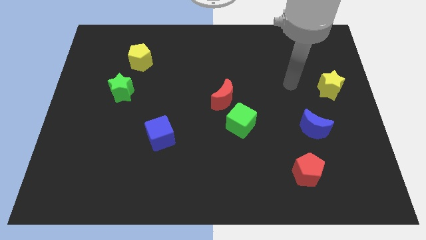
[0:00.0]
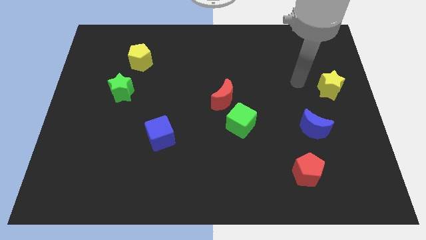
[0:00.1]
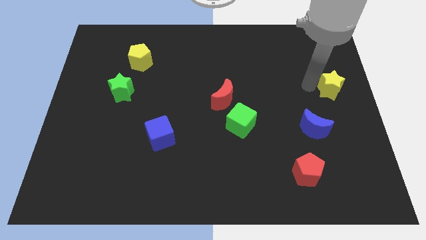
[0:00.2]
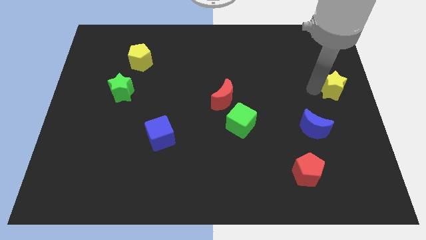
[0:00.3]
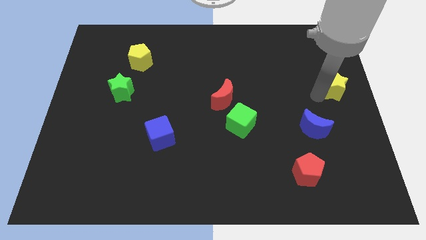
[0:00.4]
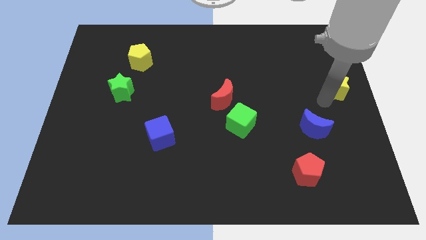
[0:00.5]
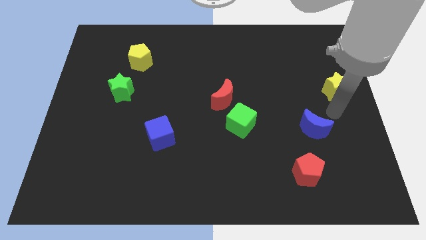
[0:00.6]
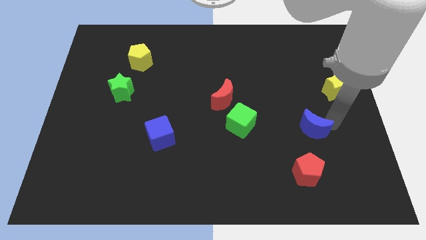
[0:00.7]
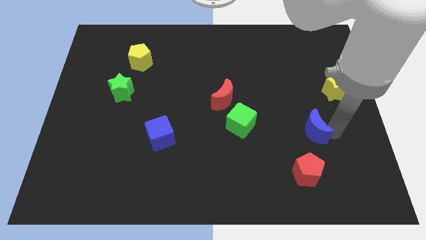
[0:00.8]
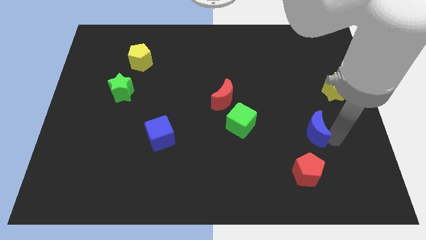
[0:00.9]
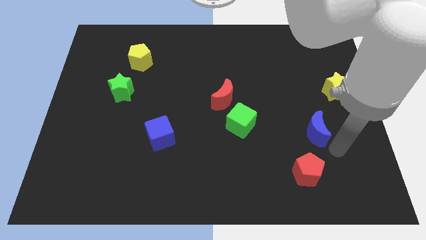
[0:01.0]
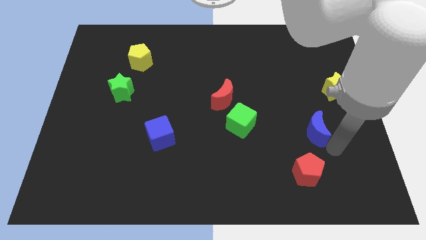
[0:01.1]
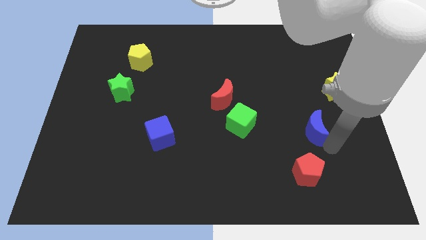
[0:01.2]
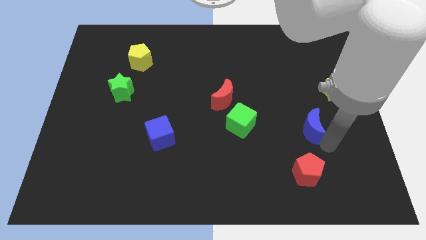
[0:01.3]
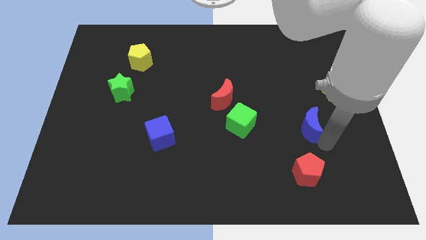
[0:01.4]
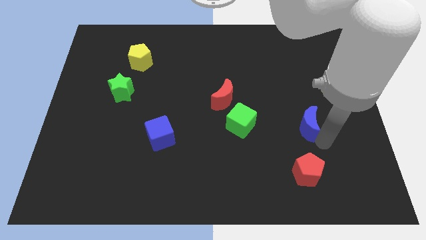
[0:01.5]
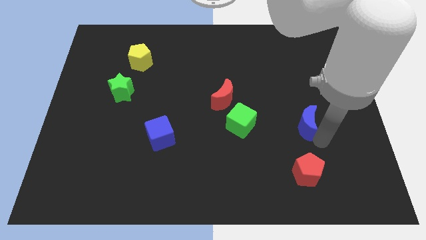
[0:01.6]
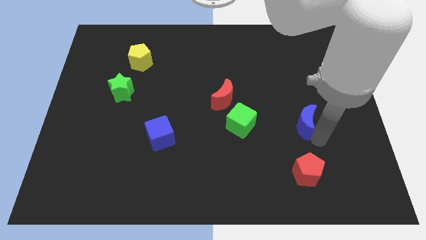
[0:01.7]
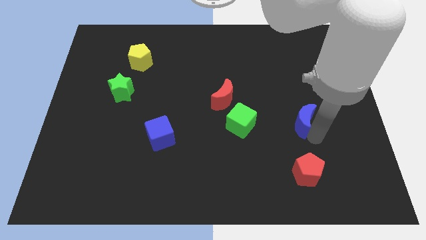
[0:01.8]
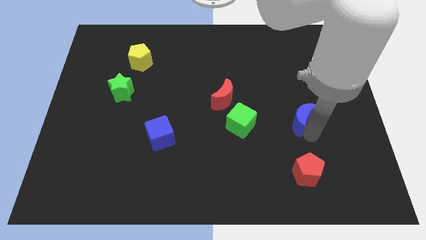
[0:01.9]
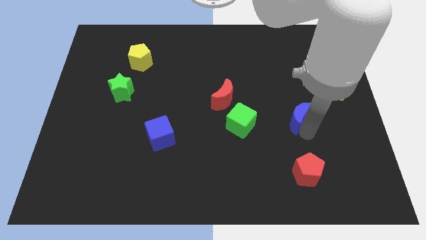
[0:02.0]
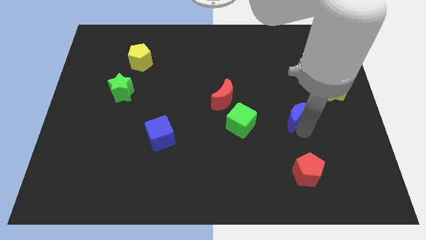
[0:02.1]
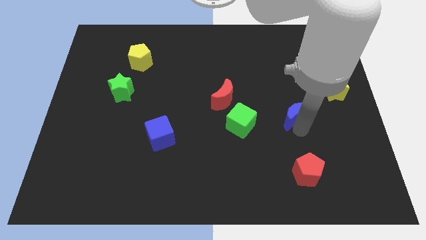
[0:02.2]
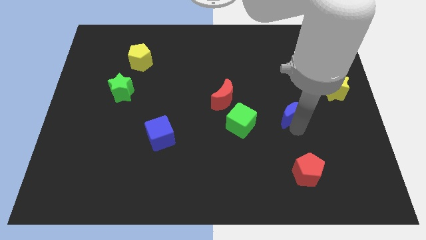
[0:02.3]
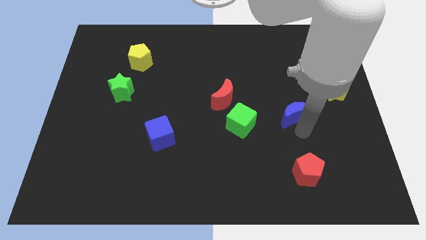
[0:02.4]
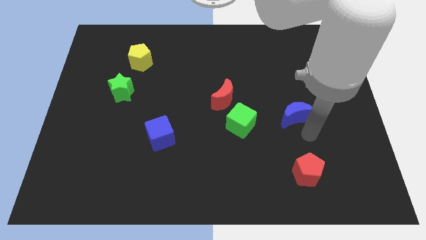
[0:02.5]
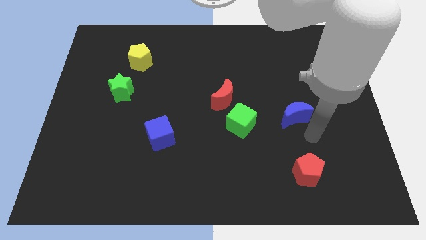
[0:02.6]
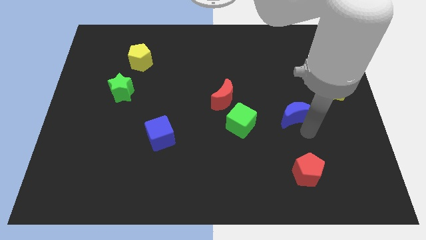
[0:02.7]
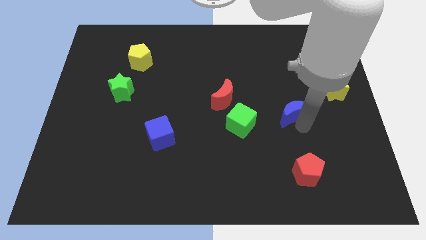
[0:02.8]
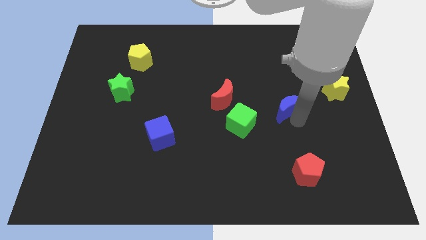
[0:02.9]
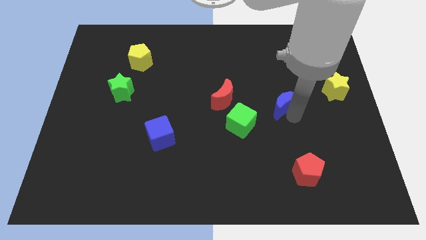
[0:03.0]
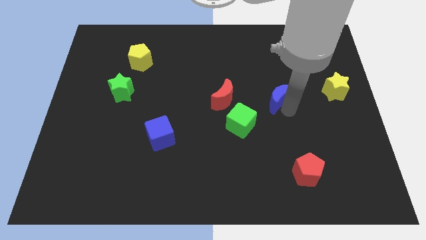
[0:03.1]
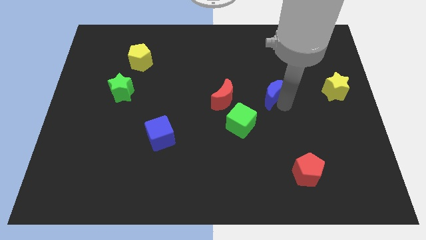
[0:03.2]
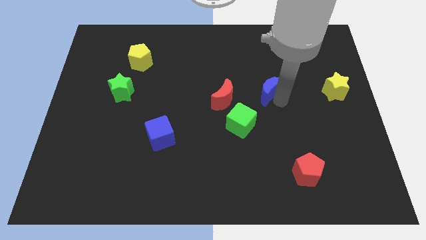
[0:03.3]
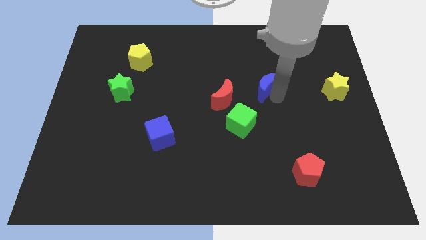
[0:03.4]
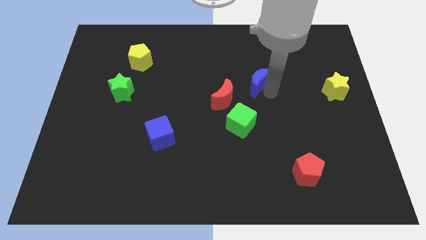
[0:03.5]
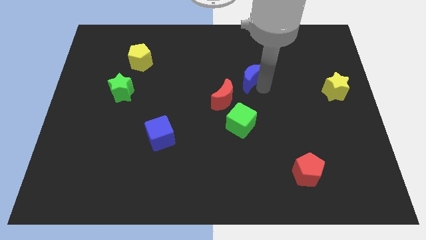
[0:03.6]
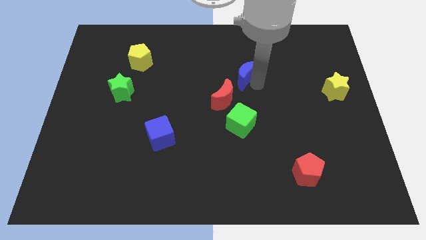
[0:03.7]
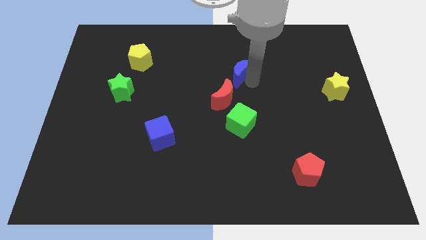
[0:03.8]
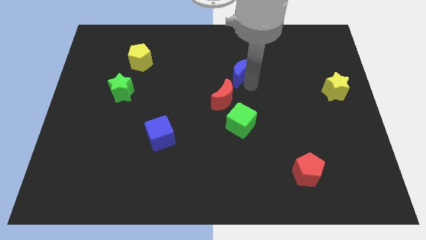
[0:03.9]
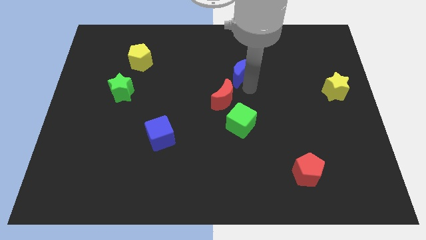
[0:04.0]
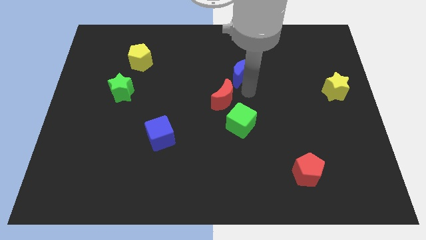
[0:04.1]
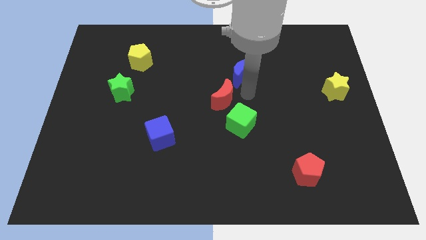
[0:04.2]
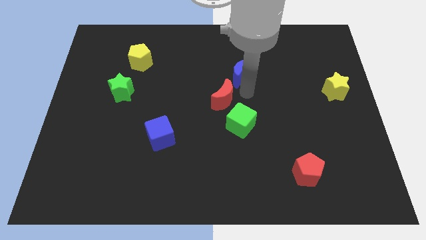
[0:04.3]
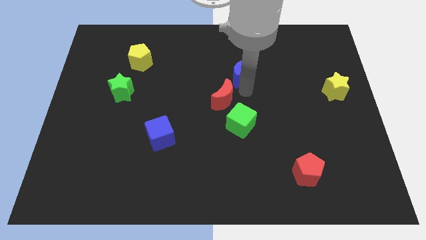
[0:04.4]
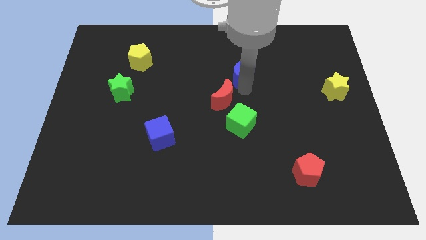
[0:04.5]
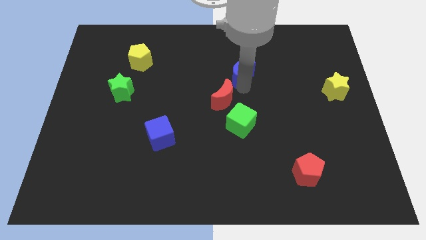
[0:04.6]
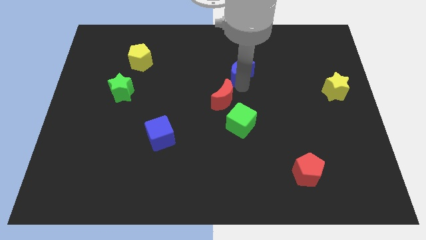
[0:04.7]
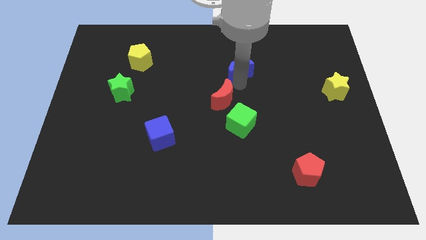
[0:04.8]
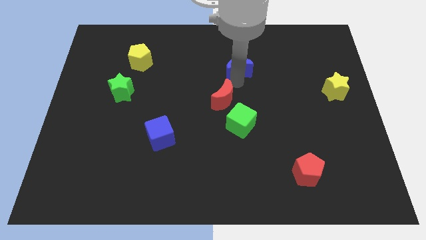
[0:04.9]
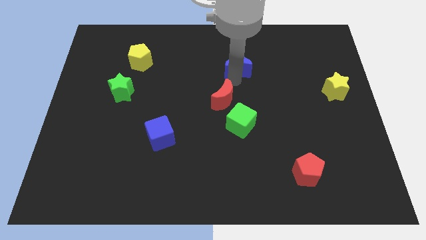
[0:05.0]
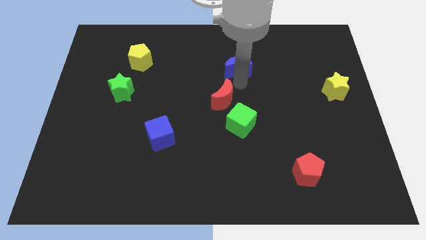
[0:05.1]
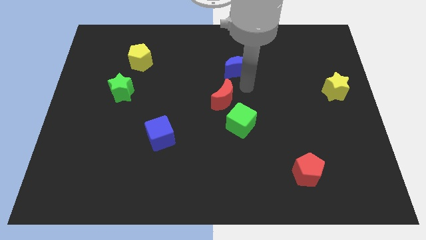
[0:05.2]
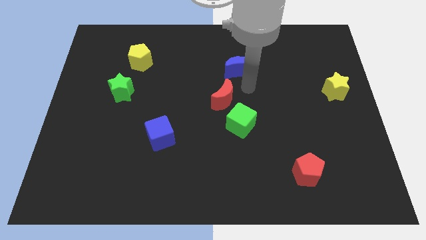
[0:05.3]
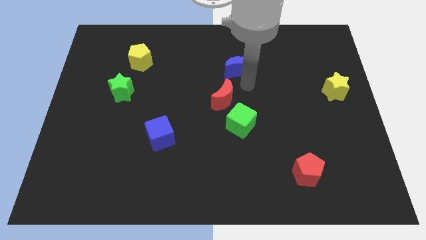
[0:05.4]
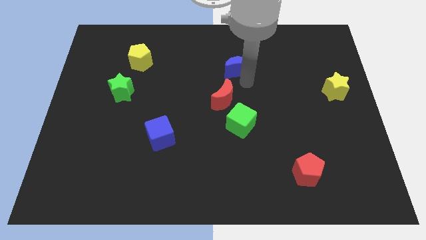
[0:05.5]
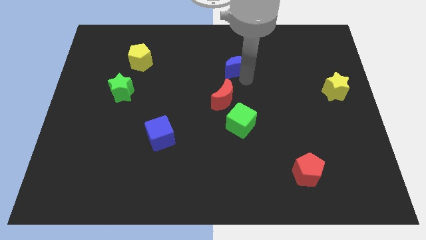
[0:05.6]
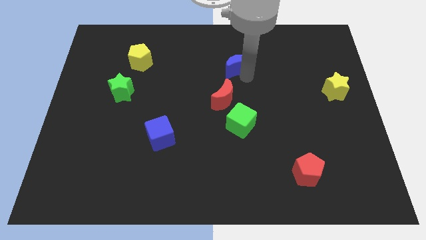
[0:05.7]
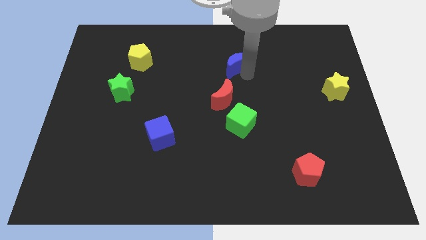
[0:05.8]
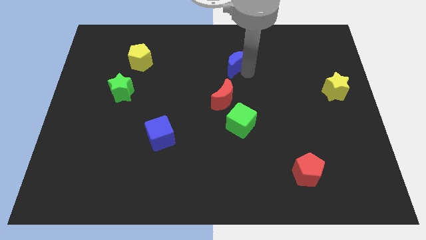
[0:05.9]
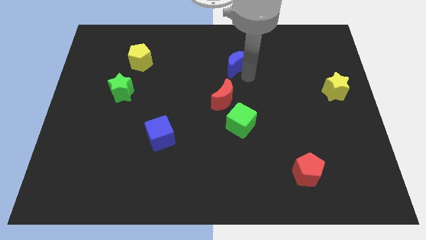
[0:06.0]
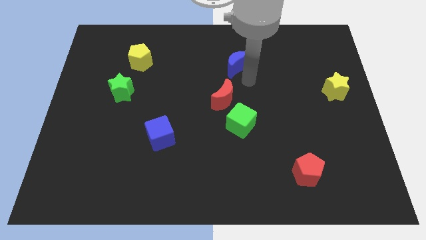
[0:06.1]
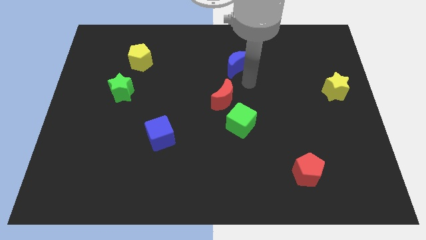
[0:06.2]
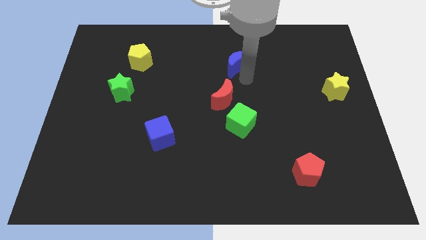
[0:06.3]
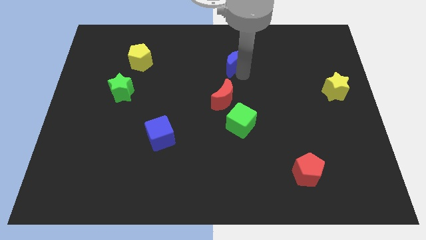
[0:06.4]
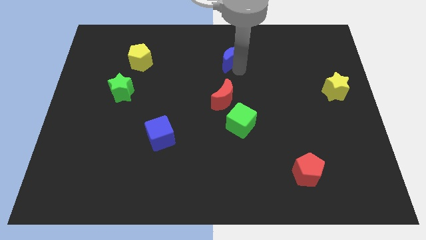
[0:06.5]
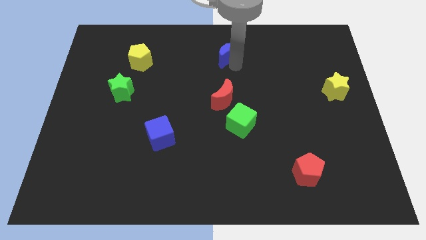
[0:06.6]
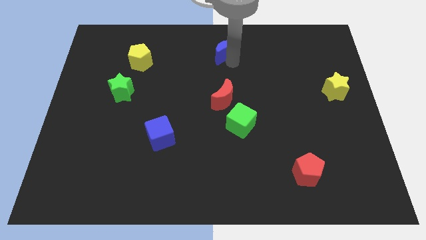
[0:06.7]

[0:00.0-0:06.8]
move the blue moon to the top side
